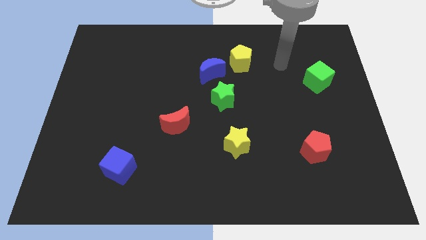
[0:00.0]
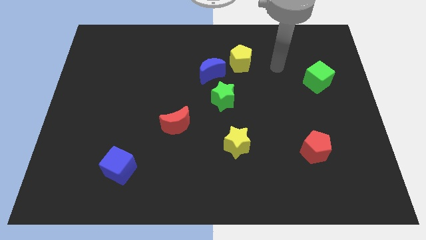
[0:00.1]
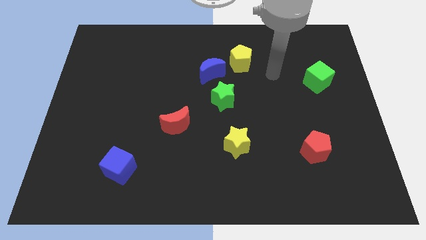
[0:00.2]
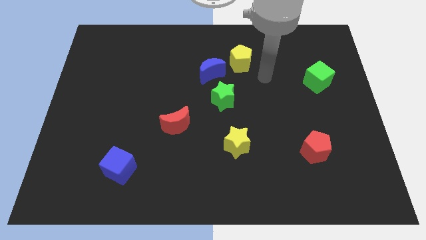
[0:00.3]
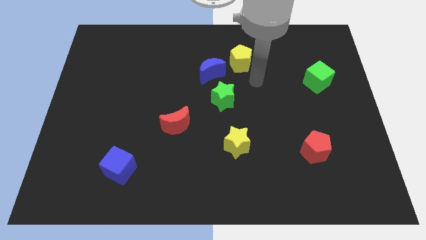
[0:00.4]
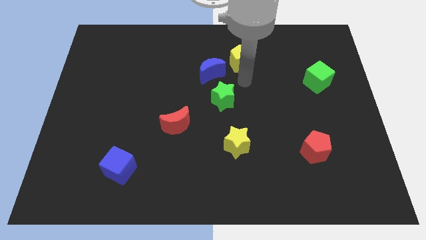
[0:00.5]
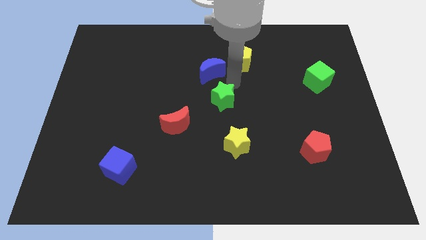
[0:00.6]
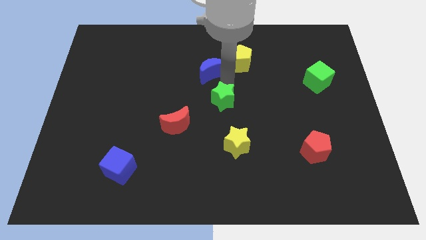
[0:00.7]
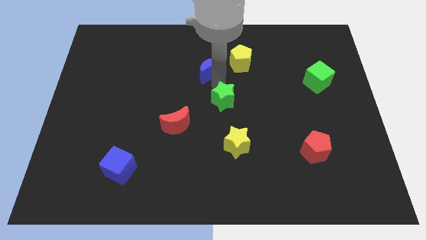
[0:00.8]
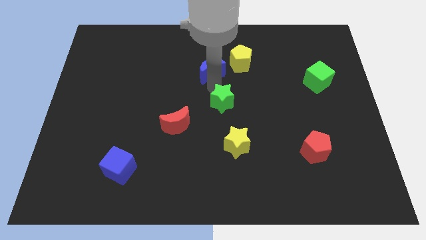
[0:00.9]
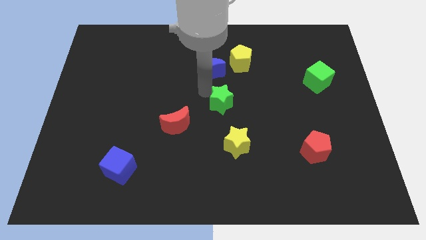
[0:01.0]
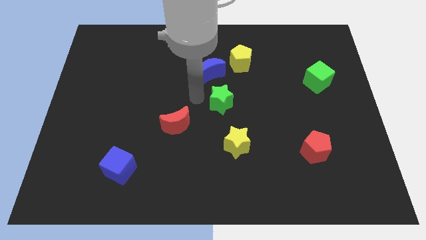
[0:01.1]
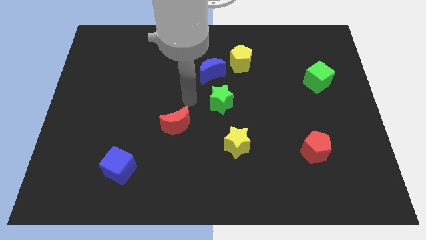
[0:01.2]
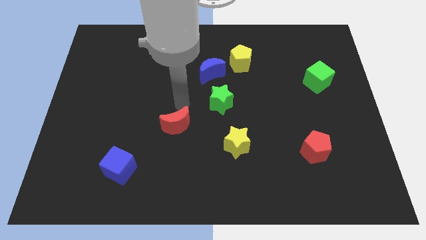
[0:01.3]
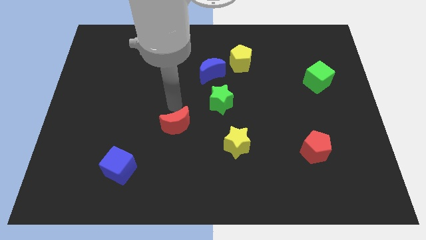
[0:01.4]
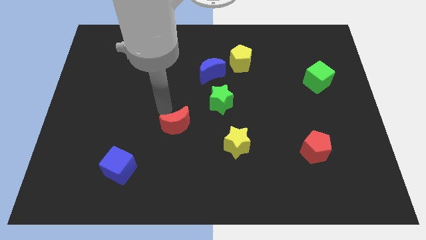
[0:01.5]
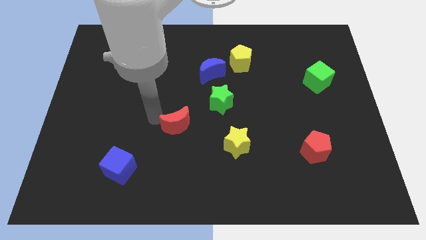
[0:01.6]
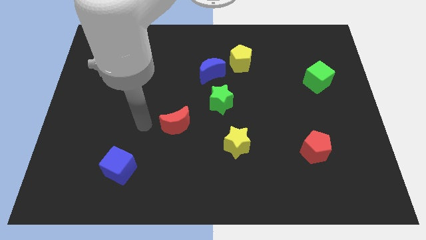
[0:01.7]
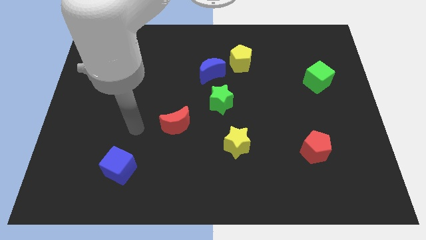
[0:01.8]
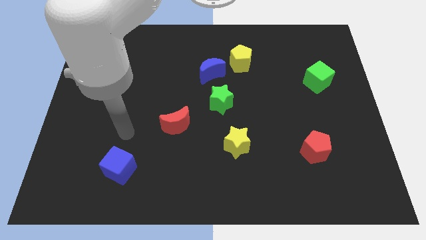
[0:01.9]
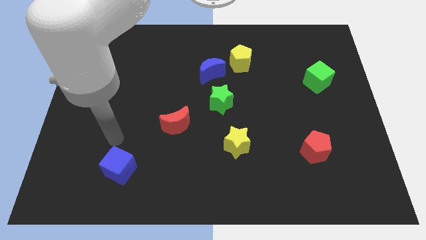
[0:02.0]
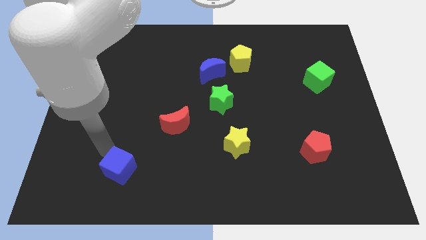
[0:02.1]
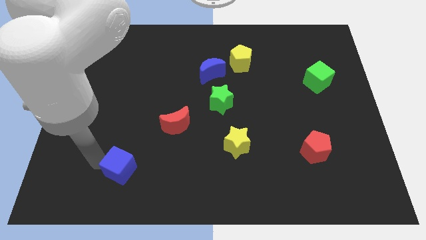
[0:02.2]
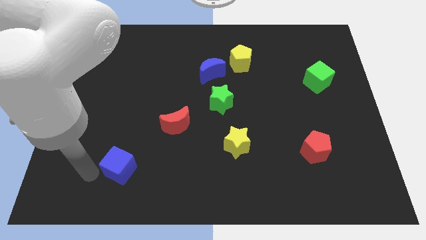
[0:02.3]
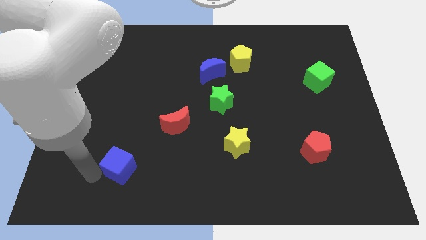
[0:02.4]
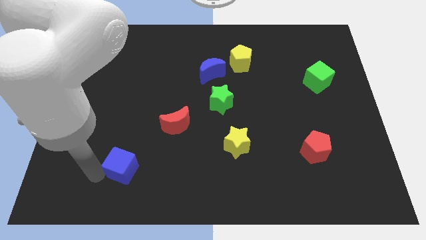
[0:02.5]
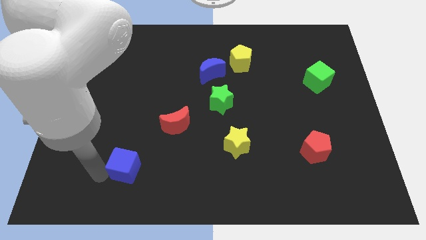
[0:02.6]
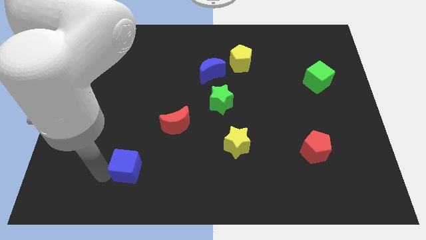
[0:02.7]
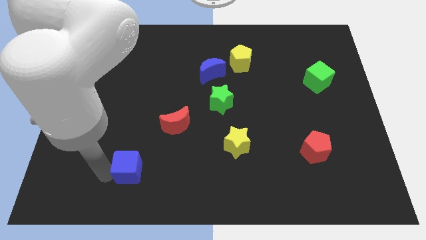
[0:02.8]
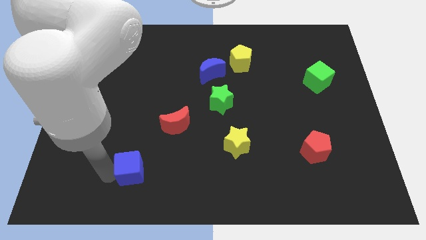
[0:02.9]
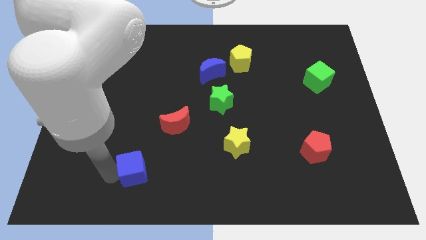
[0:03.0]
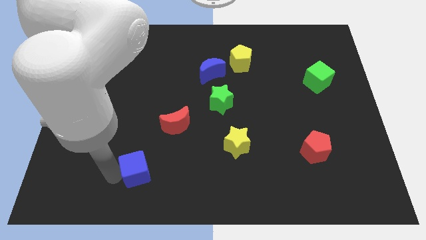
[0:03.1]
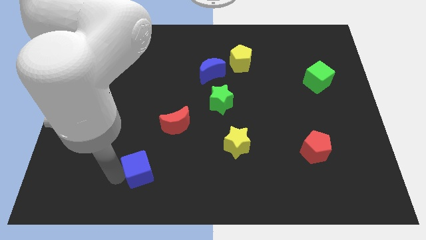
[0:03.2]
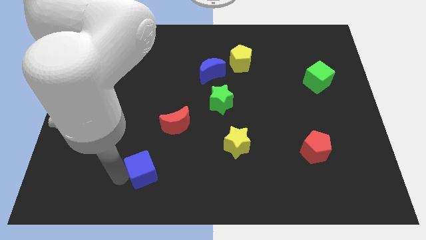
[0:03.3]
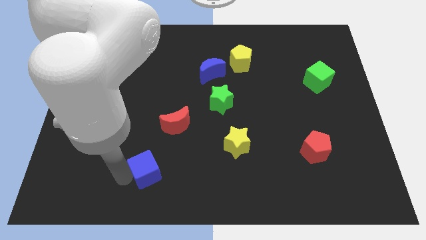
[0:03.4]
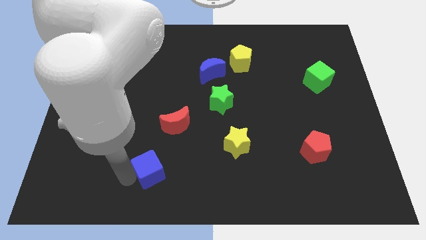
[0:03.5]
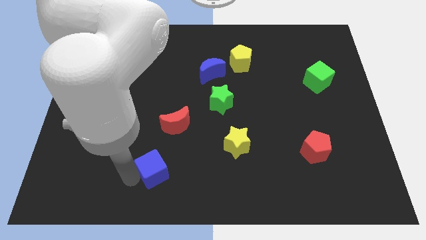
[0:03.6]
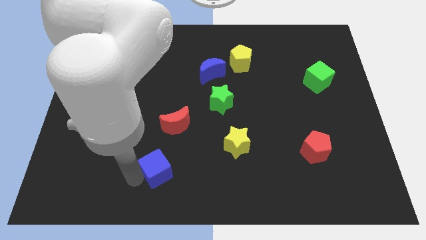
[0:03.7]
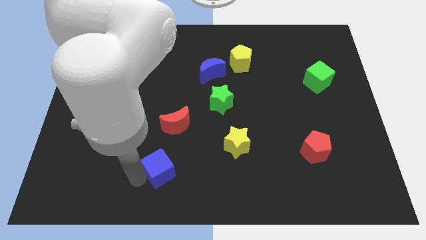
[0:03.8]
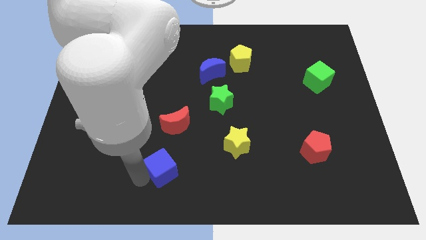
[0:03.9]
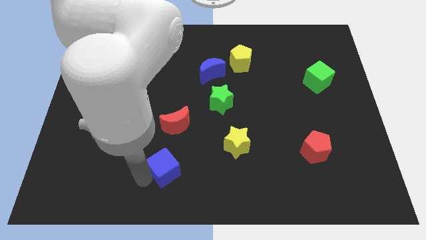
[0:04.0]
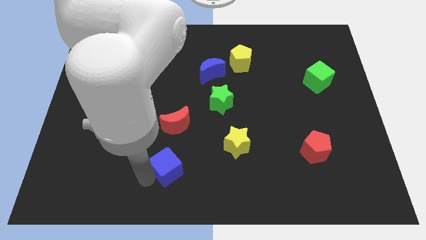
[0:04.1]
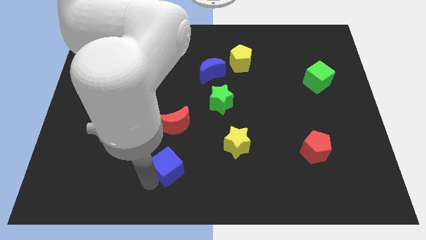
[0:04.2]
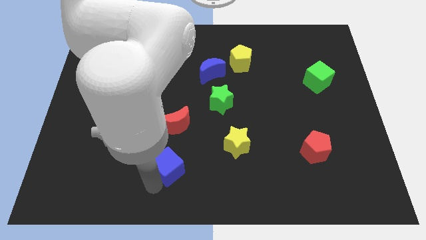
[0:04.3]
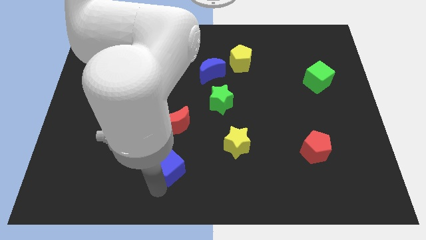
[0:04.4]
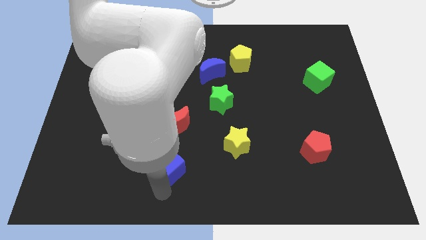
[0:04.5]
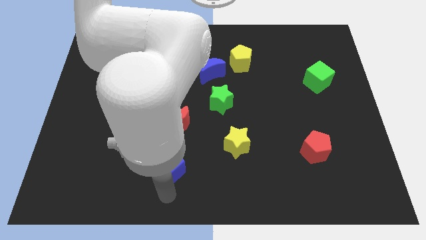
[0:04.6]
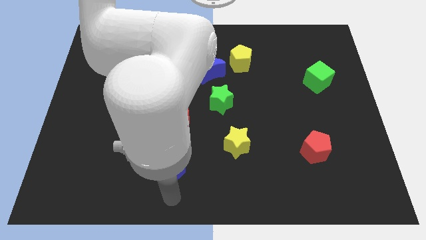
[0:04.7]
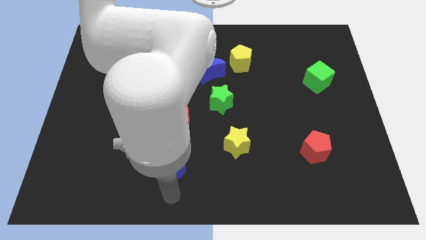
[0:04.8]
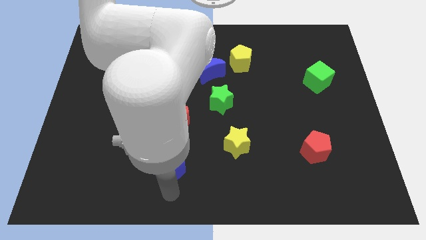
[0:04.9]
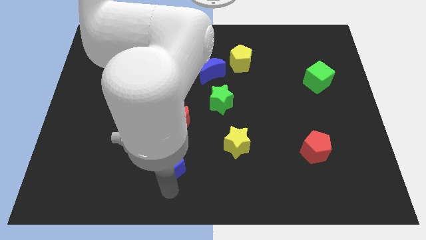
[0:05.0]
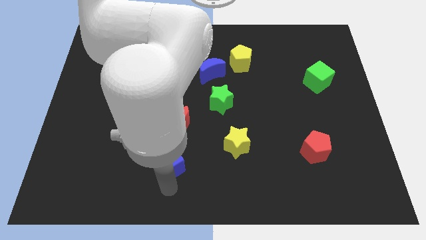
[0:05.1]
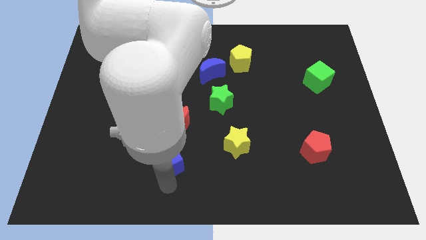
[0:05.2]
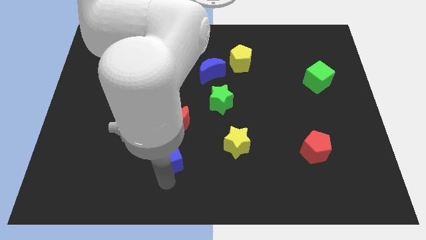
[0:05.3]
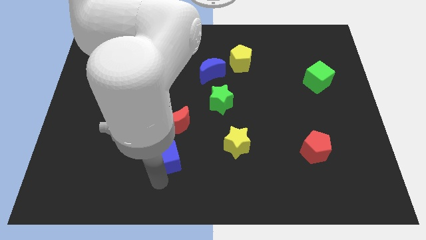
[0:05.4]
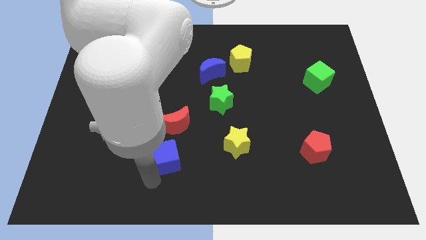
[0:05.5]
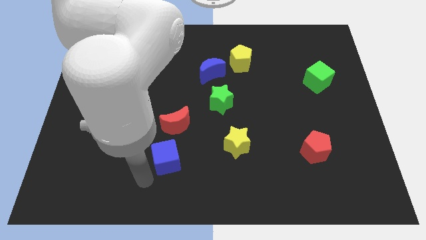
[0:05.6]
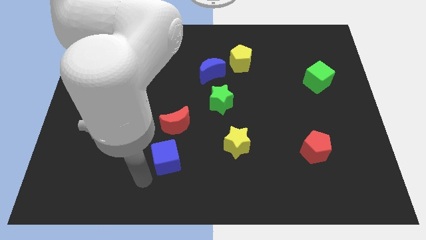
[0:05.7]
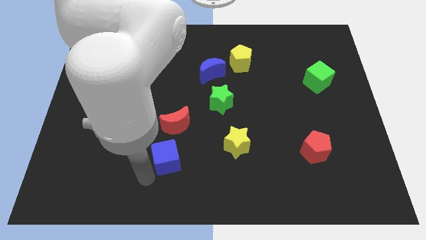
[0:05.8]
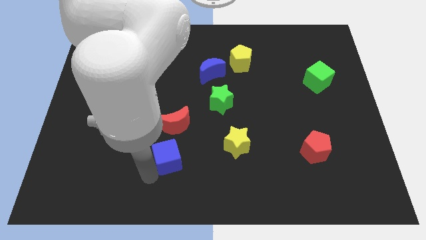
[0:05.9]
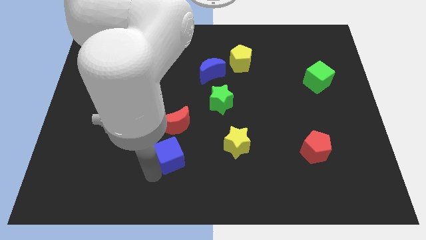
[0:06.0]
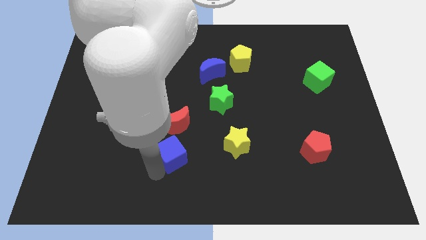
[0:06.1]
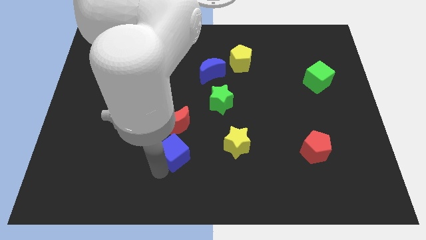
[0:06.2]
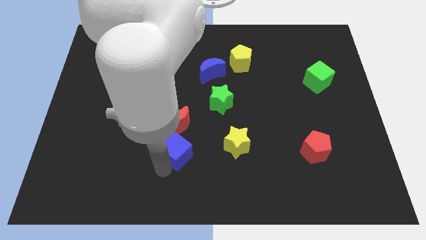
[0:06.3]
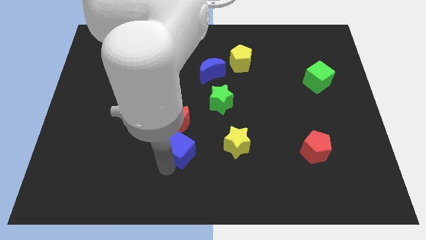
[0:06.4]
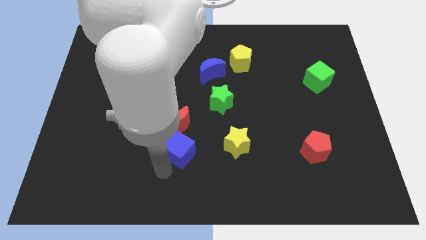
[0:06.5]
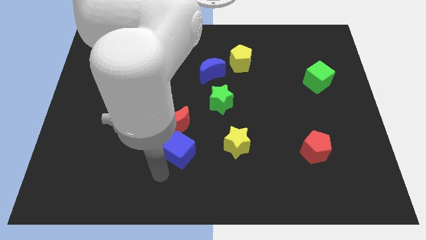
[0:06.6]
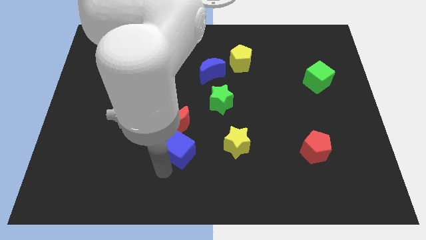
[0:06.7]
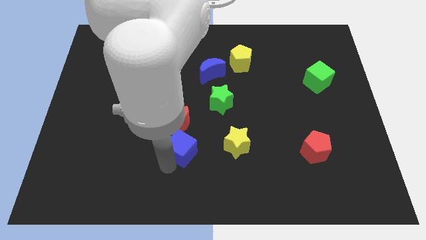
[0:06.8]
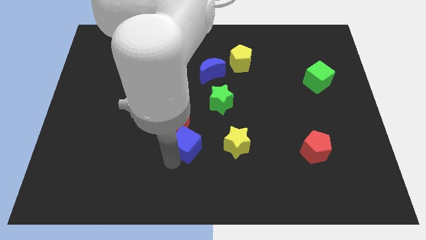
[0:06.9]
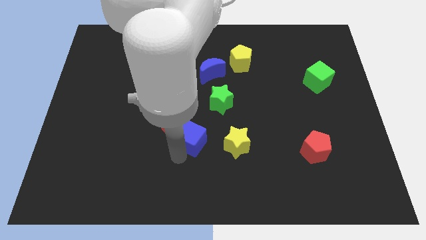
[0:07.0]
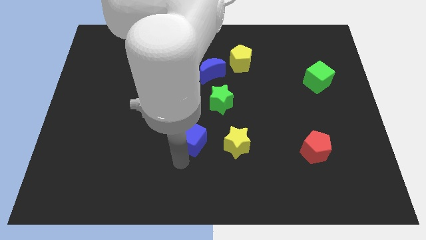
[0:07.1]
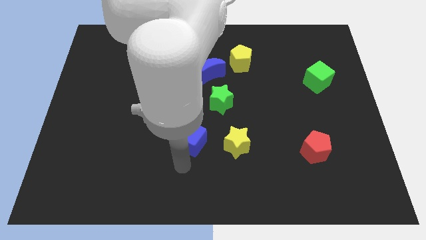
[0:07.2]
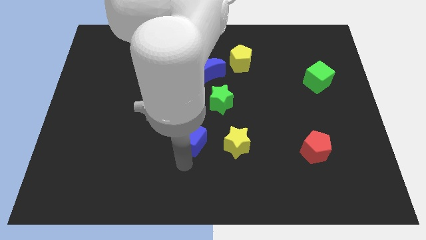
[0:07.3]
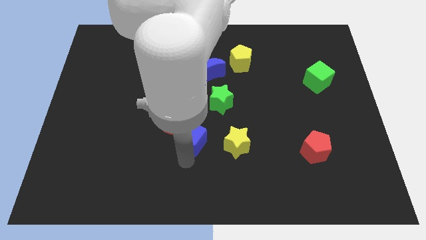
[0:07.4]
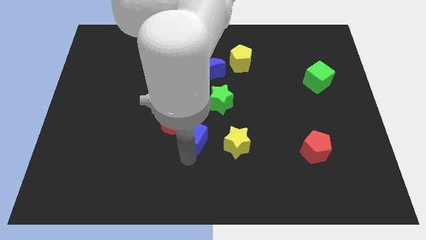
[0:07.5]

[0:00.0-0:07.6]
put the blue cube to the bottom left of the green star
